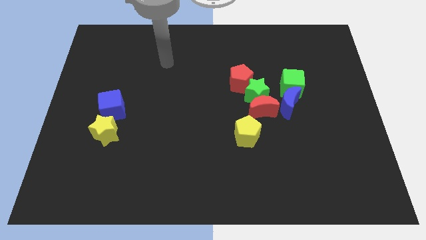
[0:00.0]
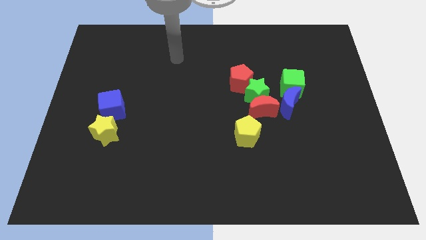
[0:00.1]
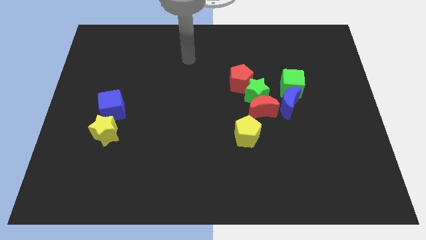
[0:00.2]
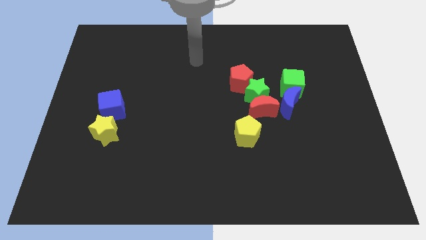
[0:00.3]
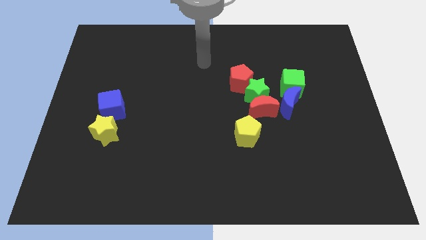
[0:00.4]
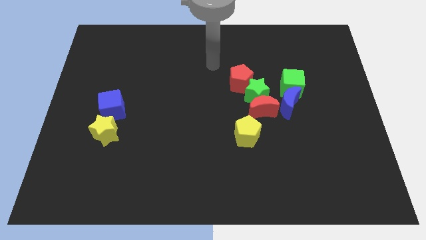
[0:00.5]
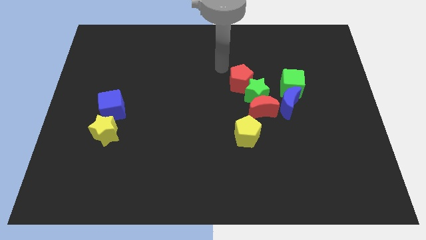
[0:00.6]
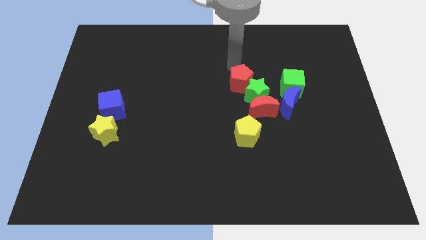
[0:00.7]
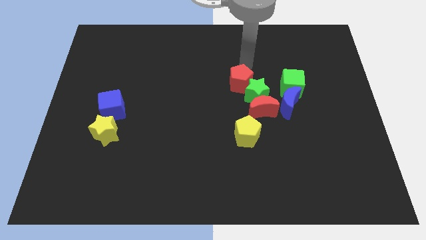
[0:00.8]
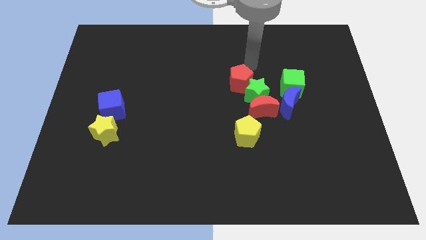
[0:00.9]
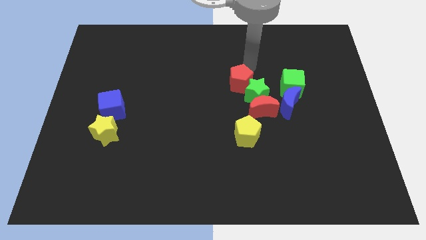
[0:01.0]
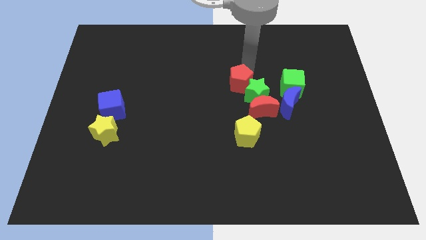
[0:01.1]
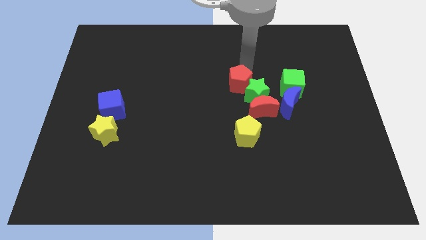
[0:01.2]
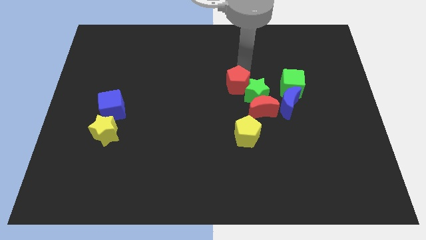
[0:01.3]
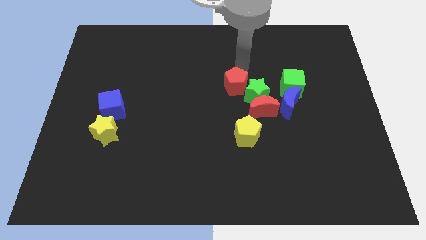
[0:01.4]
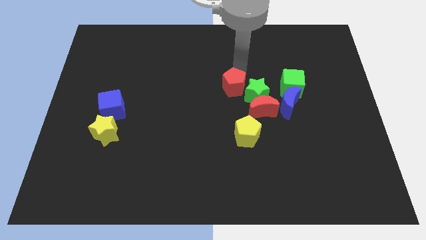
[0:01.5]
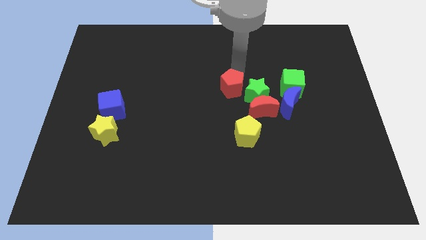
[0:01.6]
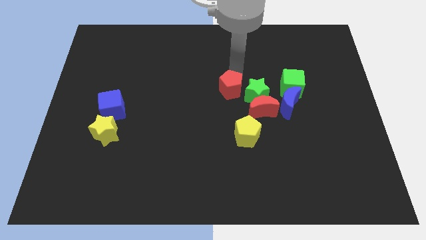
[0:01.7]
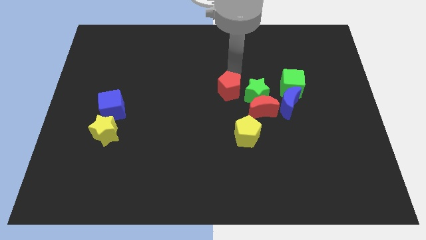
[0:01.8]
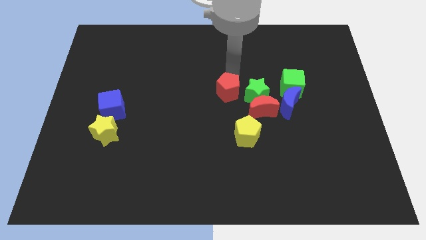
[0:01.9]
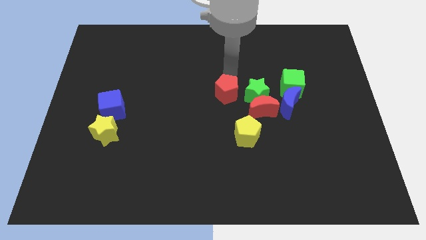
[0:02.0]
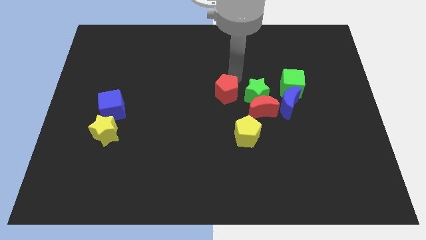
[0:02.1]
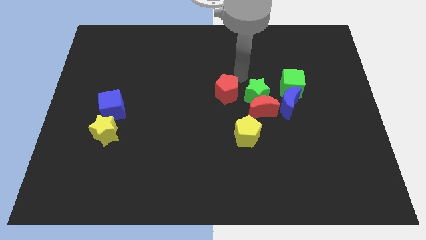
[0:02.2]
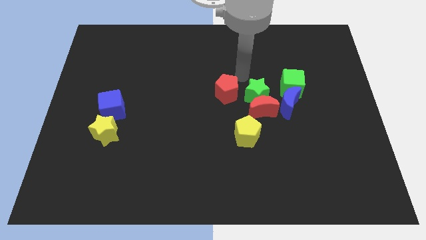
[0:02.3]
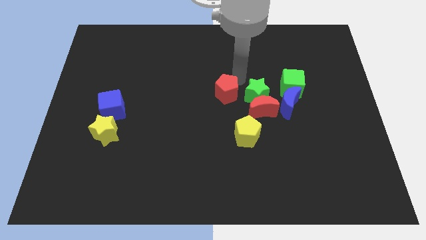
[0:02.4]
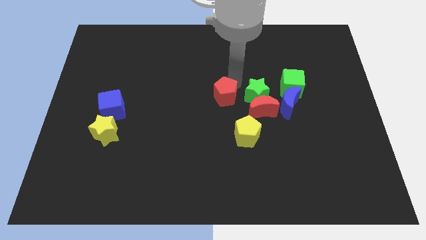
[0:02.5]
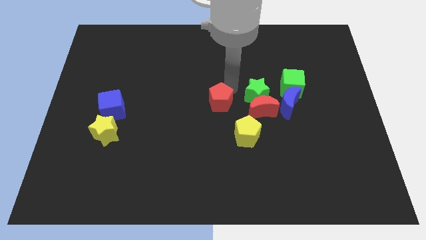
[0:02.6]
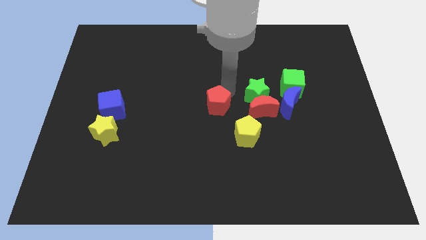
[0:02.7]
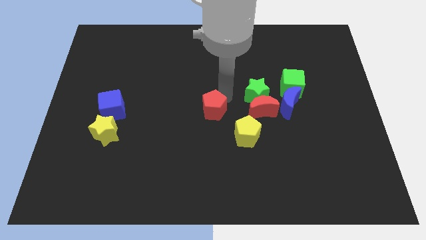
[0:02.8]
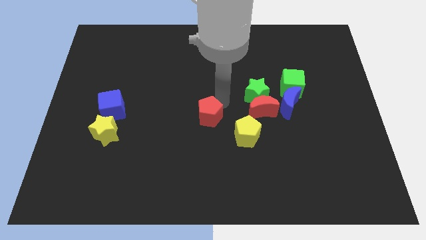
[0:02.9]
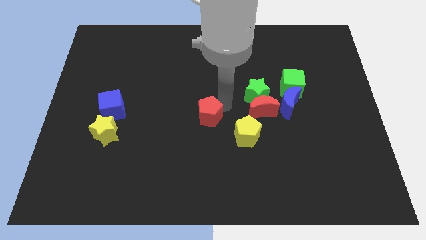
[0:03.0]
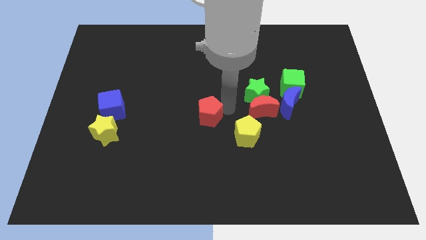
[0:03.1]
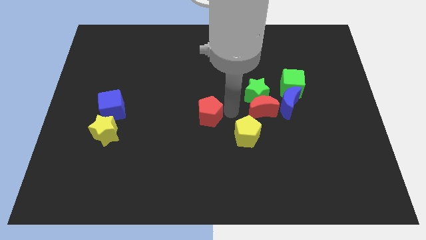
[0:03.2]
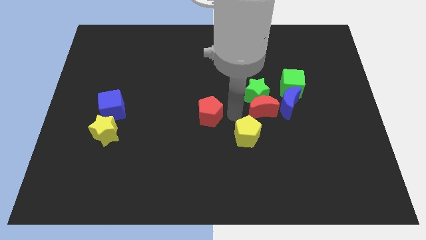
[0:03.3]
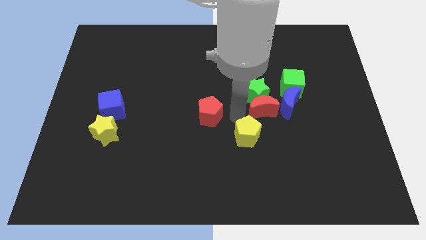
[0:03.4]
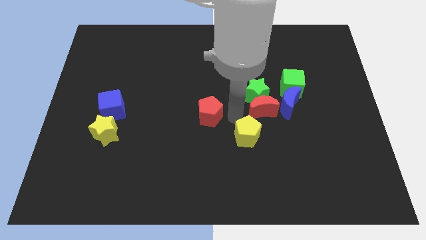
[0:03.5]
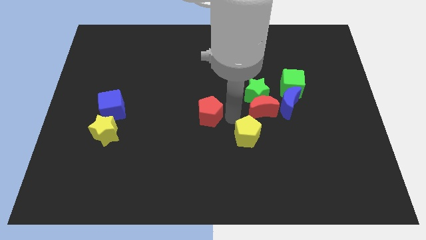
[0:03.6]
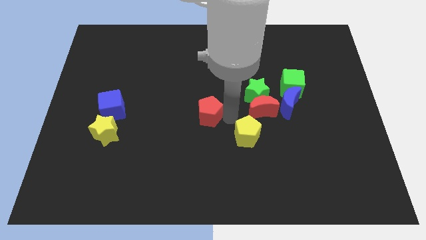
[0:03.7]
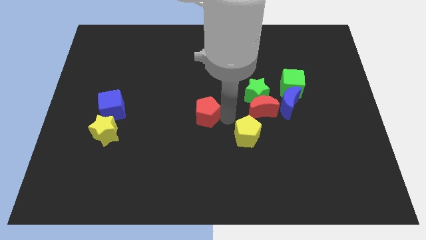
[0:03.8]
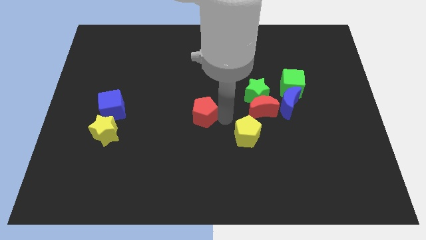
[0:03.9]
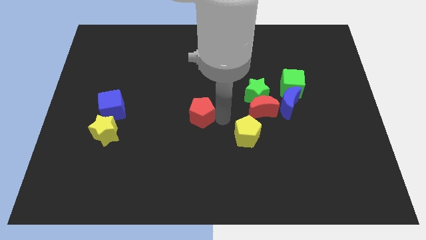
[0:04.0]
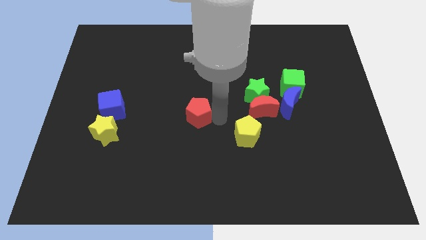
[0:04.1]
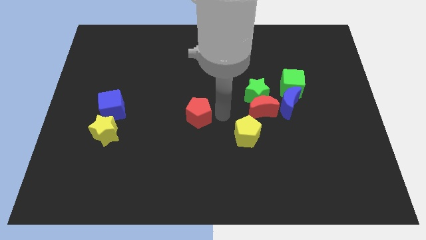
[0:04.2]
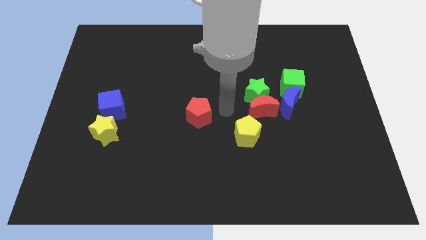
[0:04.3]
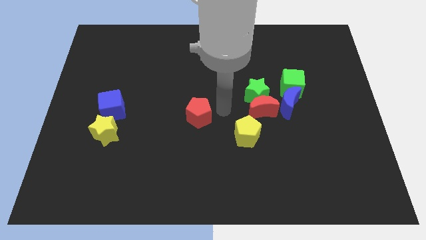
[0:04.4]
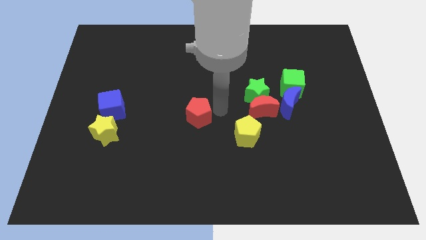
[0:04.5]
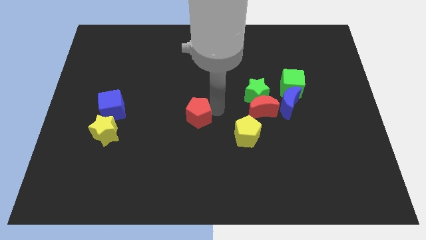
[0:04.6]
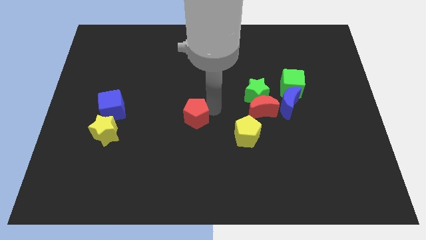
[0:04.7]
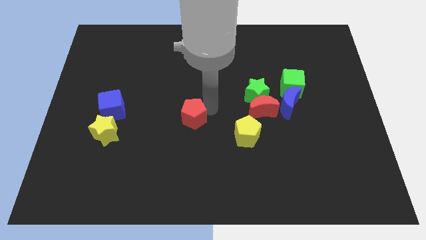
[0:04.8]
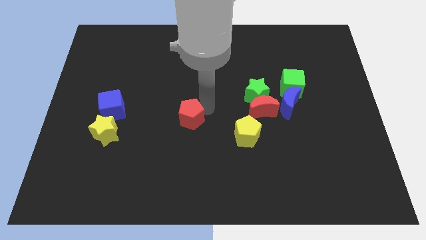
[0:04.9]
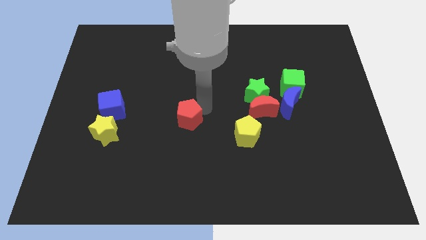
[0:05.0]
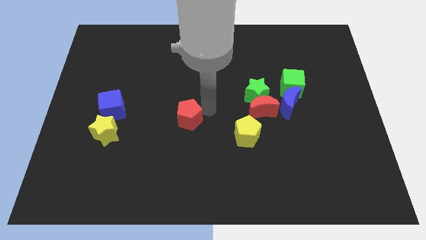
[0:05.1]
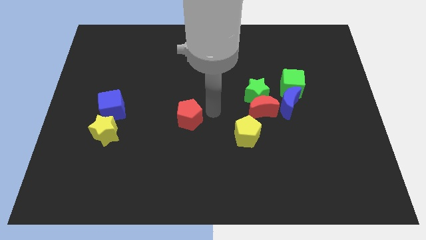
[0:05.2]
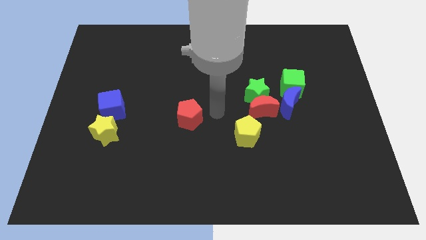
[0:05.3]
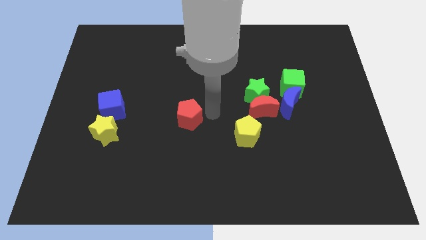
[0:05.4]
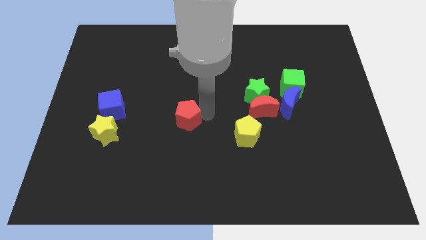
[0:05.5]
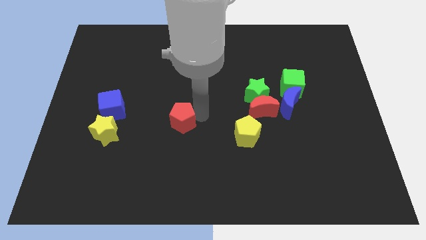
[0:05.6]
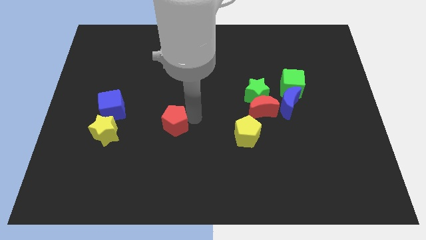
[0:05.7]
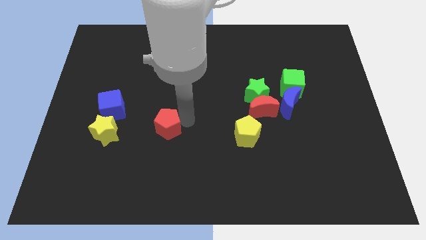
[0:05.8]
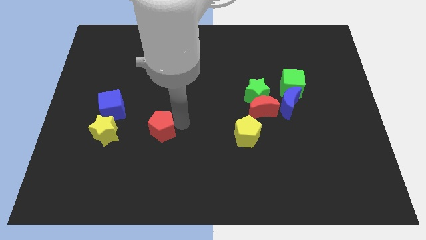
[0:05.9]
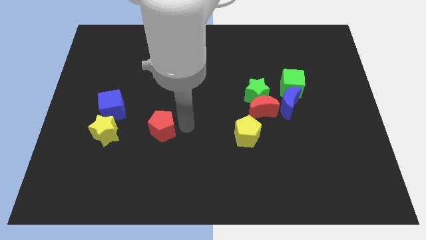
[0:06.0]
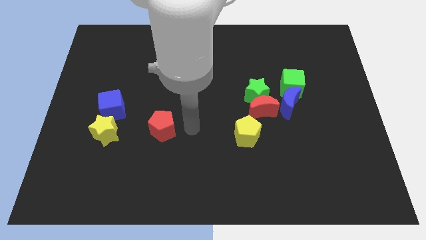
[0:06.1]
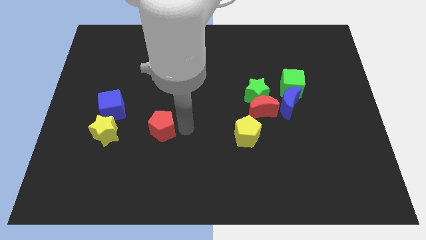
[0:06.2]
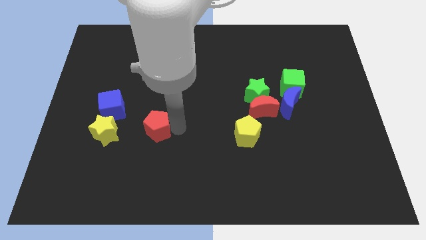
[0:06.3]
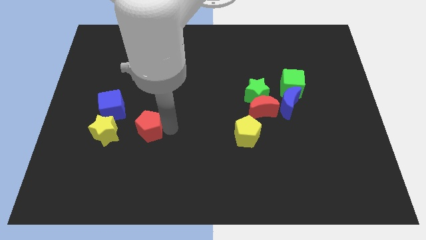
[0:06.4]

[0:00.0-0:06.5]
slide the red pentagon diagonally down and to the right of the blue cube
